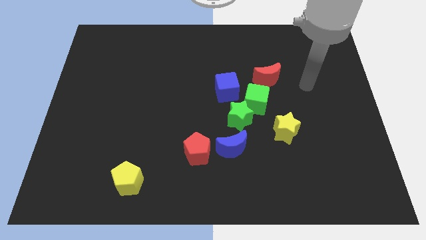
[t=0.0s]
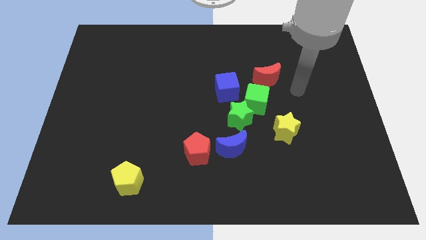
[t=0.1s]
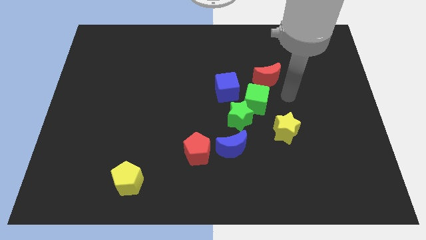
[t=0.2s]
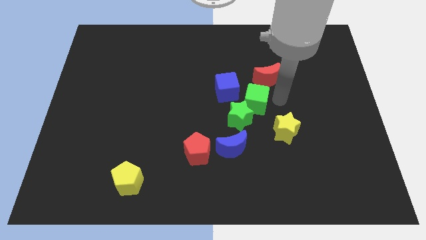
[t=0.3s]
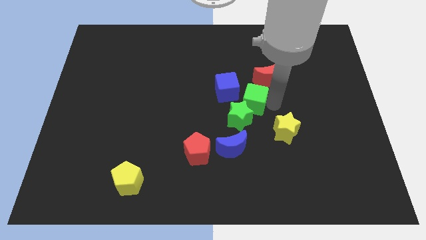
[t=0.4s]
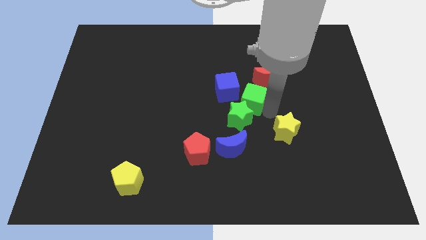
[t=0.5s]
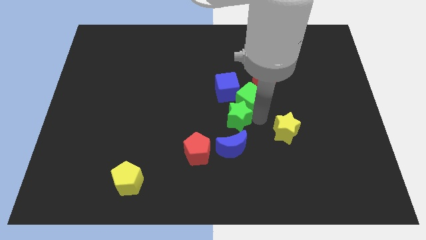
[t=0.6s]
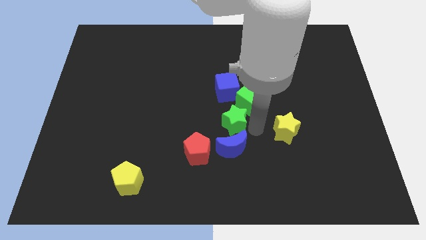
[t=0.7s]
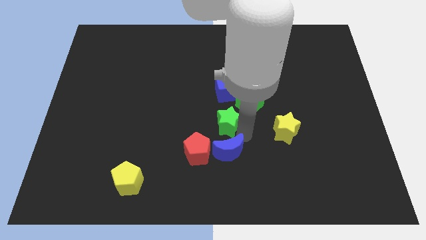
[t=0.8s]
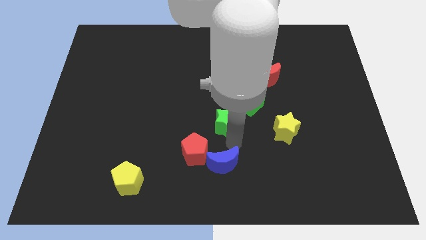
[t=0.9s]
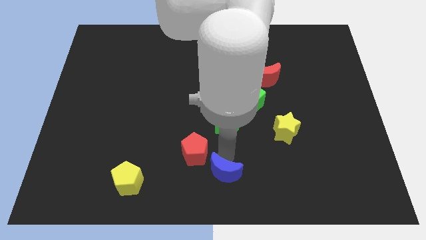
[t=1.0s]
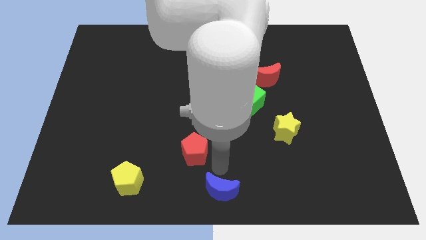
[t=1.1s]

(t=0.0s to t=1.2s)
separate the red pentagon from the blue moon

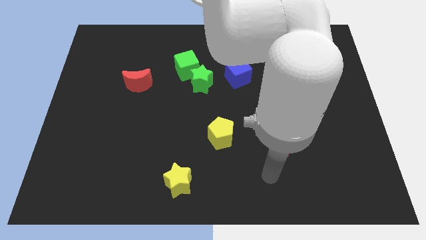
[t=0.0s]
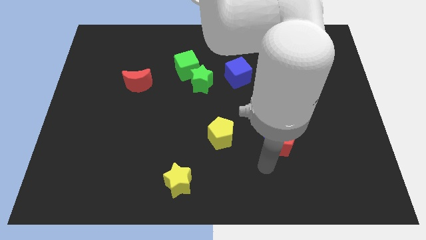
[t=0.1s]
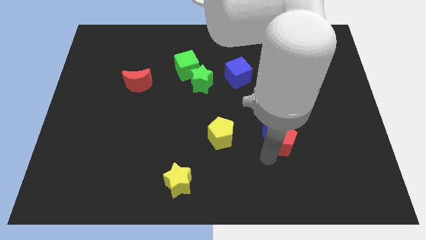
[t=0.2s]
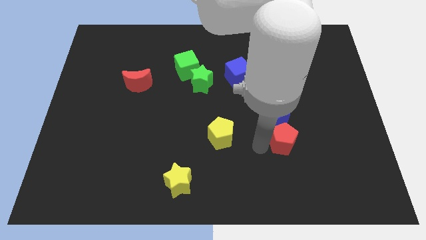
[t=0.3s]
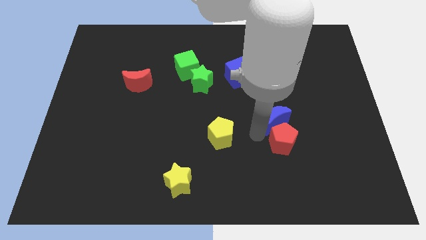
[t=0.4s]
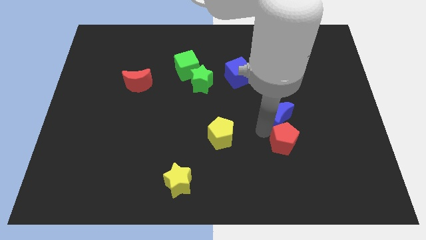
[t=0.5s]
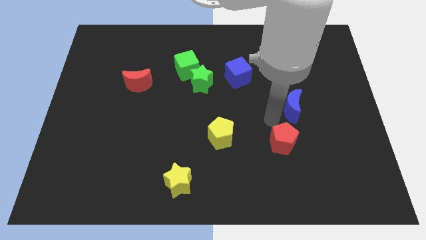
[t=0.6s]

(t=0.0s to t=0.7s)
move the red pentagon away from the blue moon

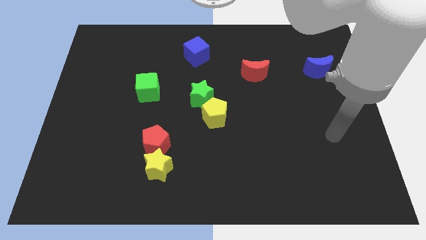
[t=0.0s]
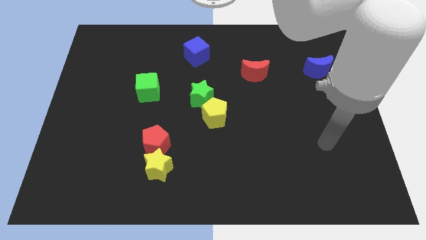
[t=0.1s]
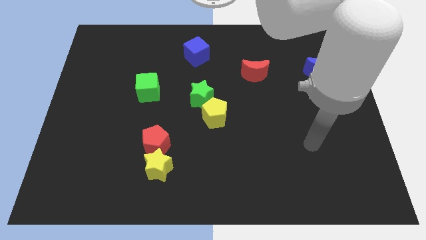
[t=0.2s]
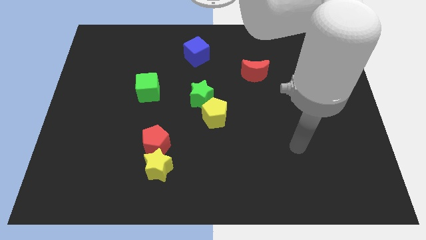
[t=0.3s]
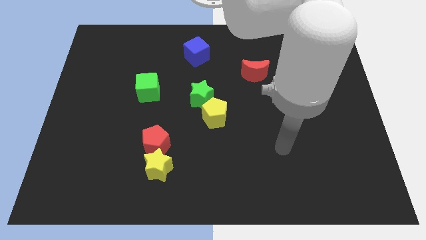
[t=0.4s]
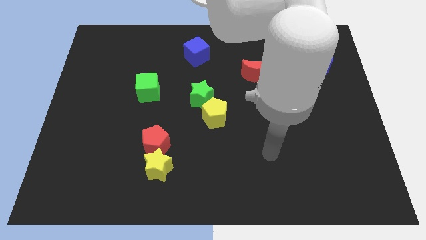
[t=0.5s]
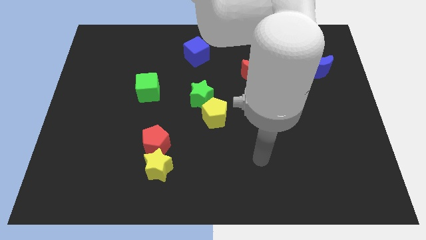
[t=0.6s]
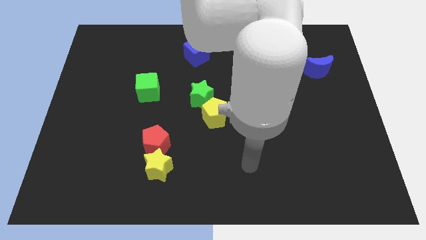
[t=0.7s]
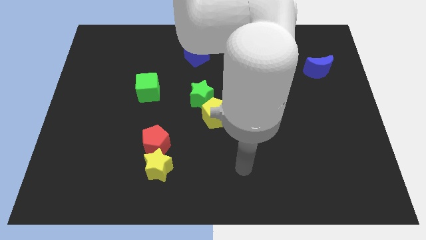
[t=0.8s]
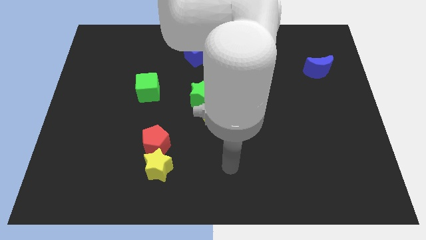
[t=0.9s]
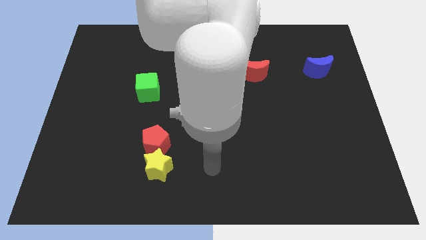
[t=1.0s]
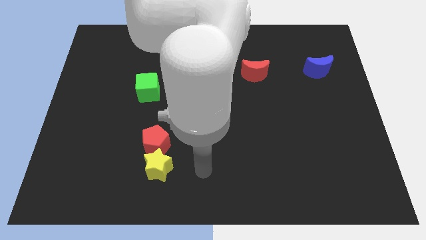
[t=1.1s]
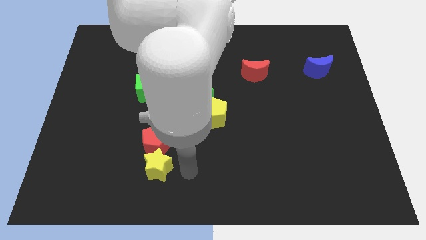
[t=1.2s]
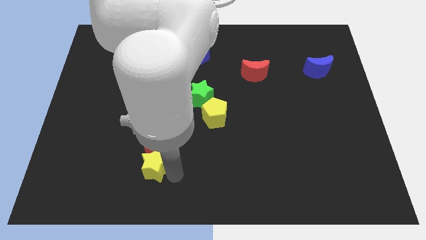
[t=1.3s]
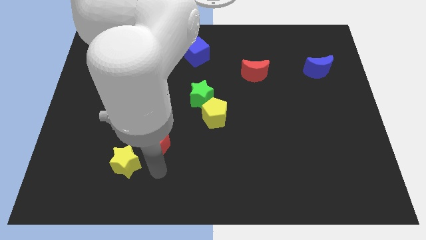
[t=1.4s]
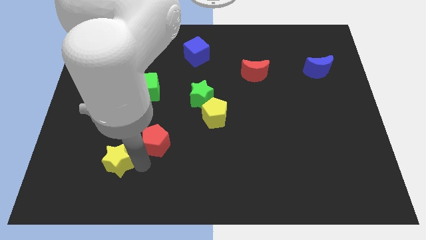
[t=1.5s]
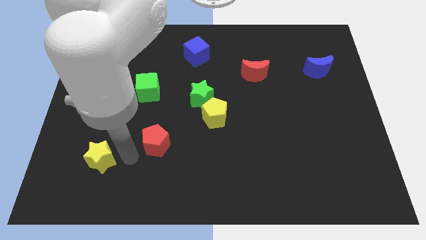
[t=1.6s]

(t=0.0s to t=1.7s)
move the red pentagon away from the yellow star

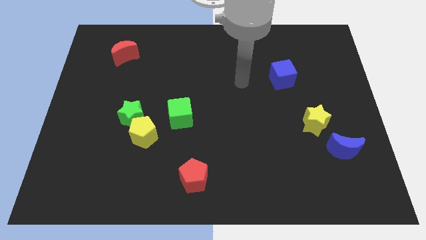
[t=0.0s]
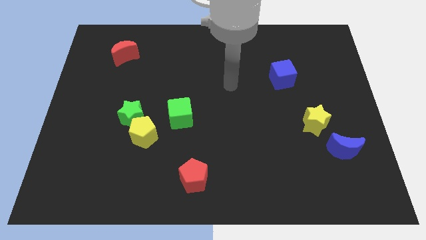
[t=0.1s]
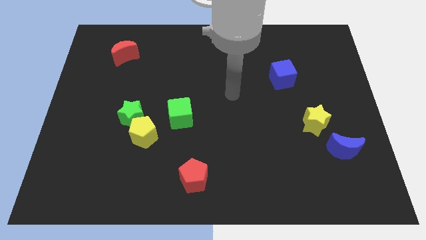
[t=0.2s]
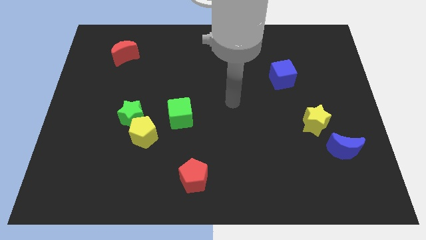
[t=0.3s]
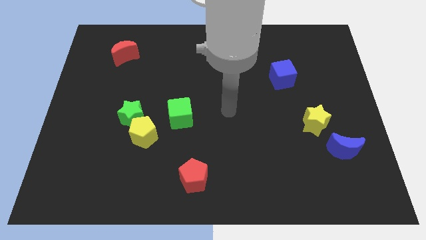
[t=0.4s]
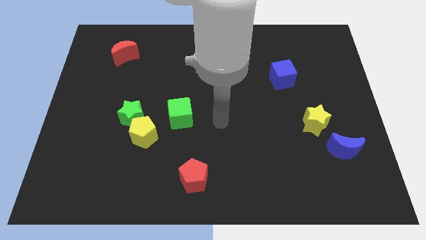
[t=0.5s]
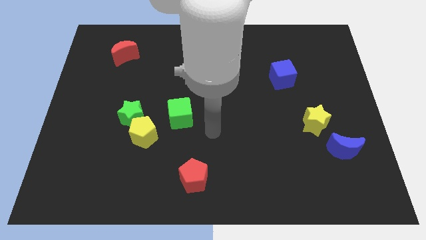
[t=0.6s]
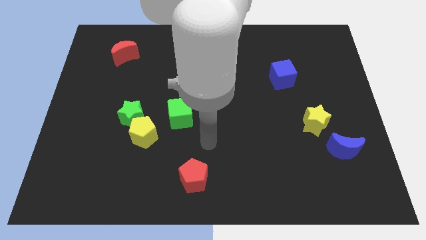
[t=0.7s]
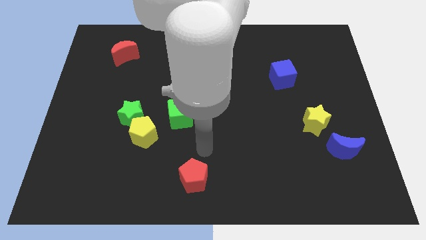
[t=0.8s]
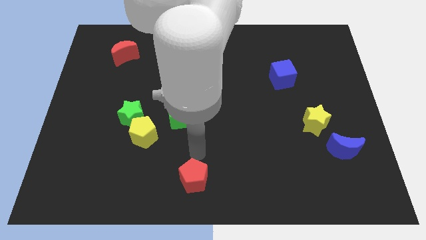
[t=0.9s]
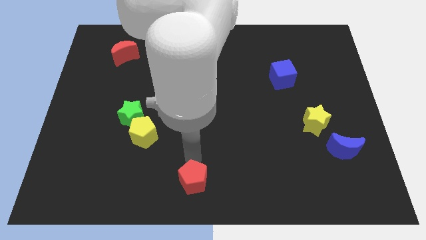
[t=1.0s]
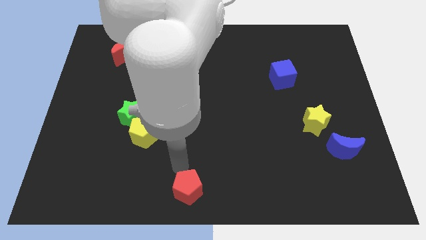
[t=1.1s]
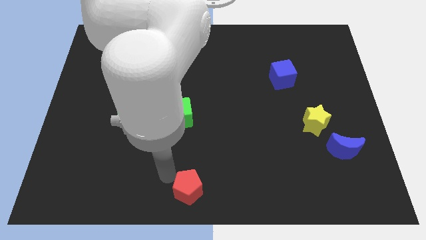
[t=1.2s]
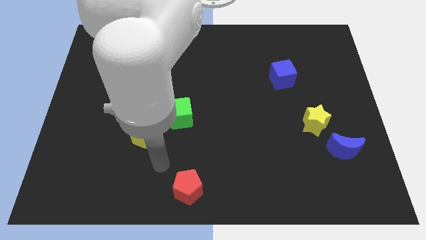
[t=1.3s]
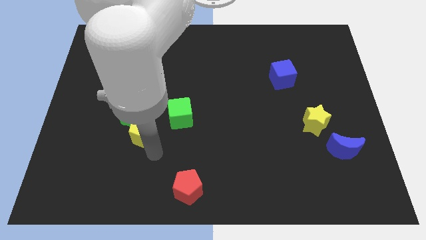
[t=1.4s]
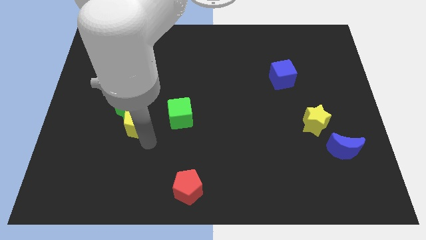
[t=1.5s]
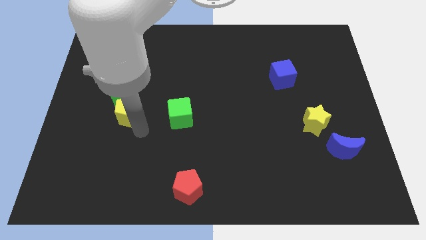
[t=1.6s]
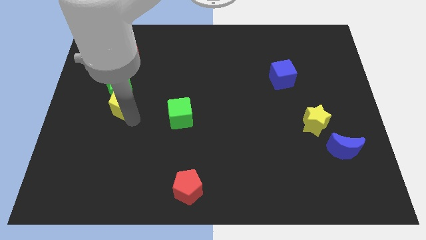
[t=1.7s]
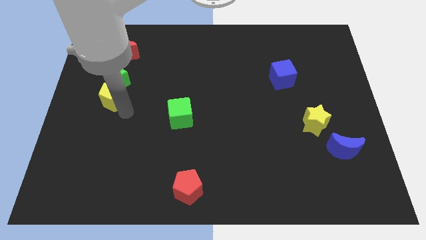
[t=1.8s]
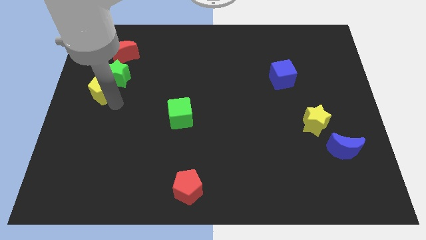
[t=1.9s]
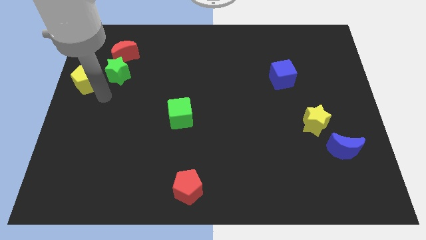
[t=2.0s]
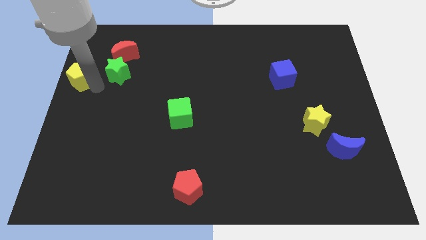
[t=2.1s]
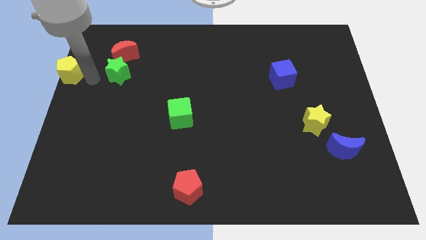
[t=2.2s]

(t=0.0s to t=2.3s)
separate the green star from the yellow pentagon

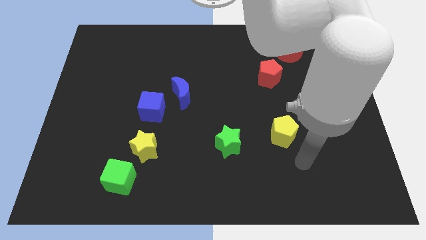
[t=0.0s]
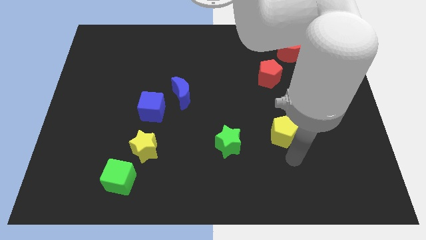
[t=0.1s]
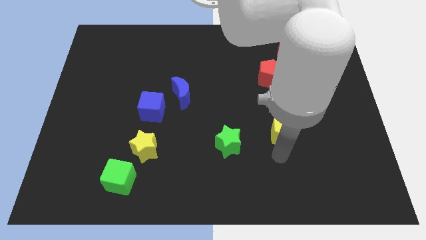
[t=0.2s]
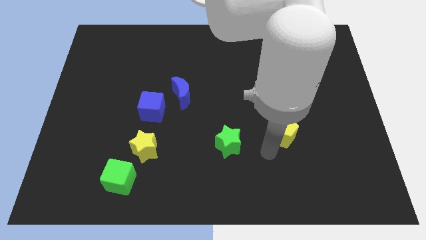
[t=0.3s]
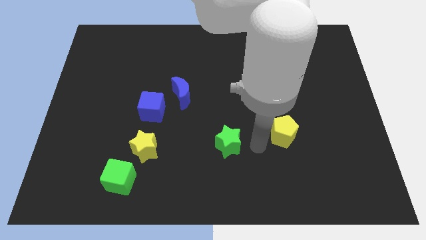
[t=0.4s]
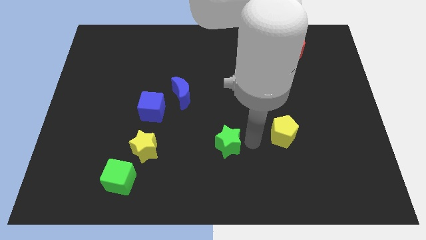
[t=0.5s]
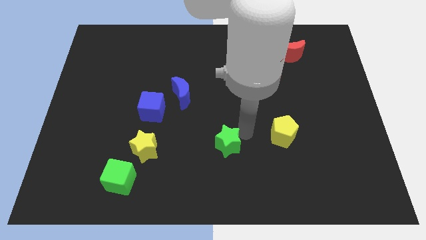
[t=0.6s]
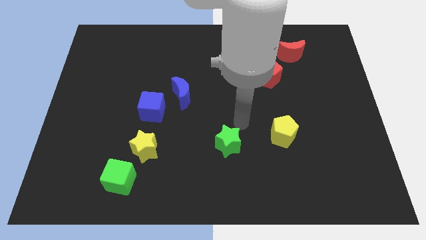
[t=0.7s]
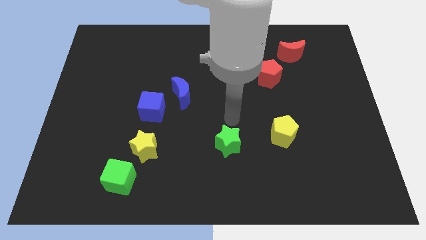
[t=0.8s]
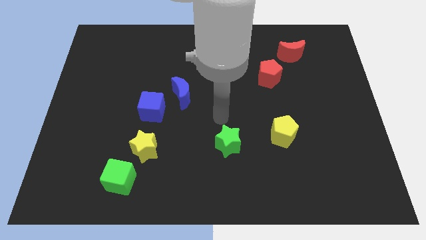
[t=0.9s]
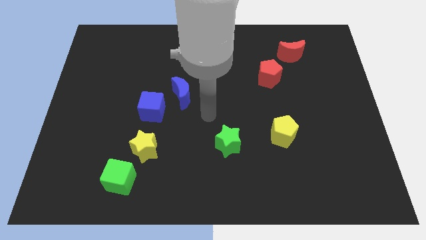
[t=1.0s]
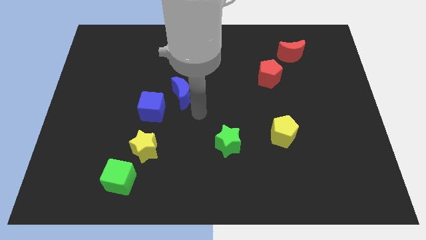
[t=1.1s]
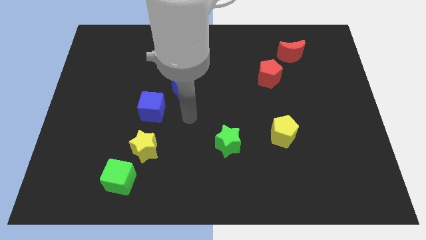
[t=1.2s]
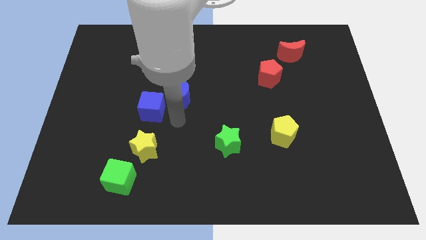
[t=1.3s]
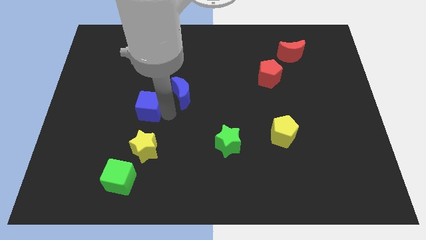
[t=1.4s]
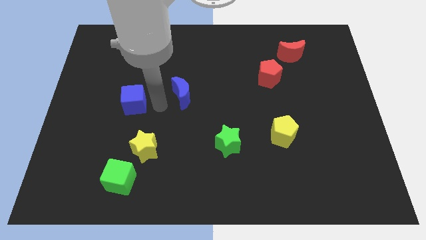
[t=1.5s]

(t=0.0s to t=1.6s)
pull the blue moon apart from the blue cube

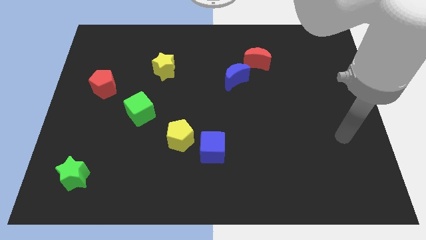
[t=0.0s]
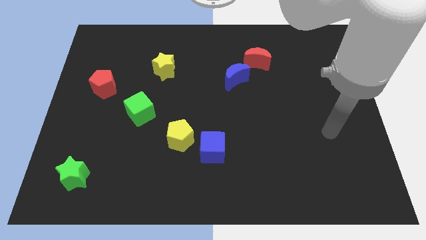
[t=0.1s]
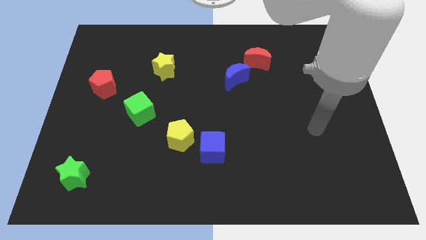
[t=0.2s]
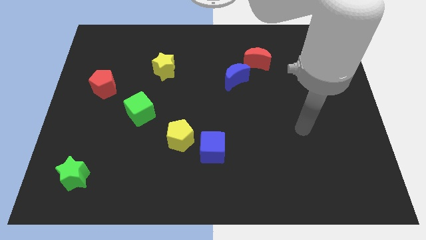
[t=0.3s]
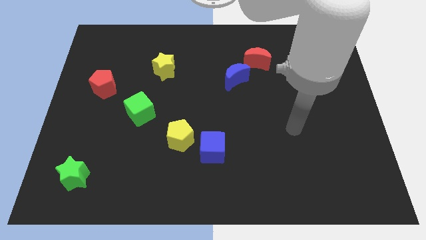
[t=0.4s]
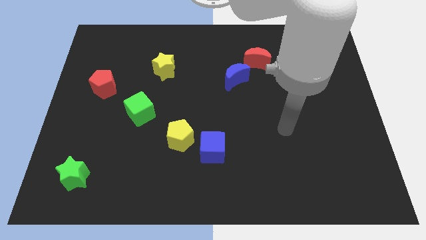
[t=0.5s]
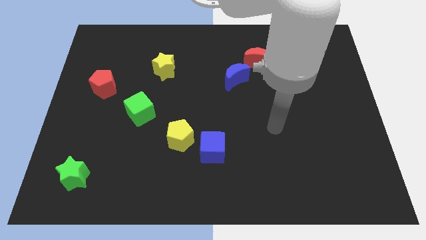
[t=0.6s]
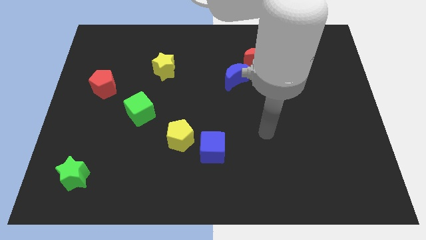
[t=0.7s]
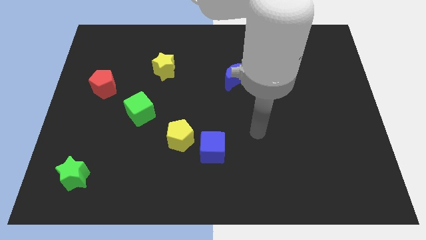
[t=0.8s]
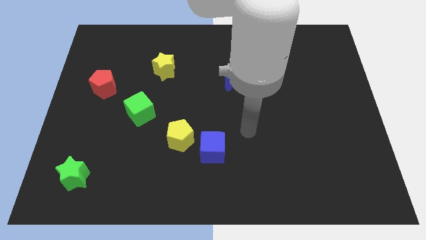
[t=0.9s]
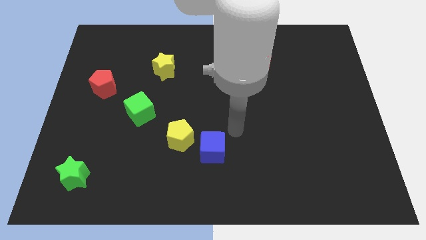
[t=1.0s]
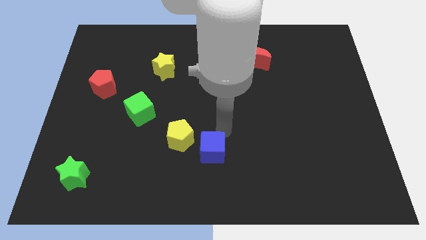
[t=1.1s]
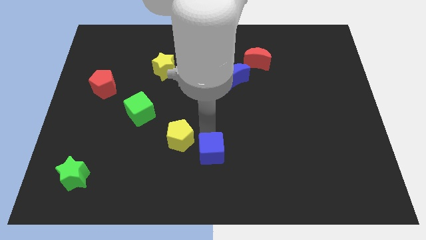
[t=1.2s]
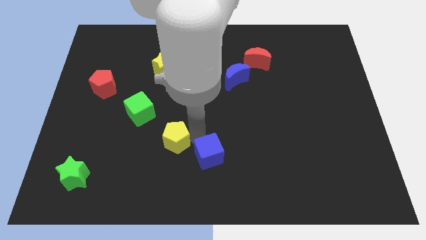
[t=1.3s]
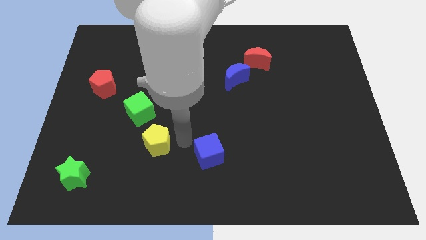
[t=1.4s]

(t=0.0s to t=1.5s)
pull the blue cube apart from the yellow pentagon

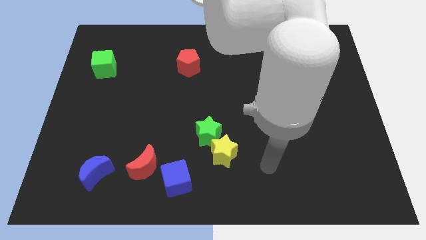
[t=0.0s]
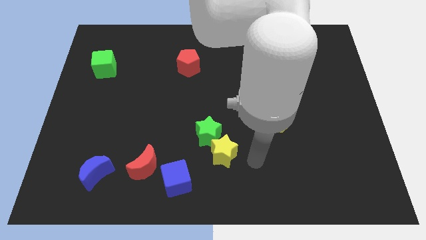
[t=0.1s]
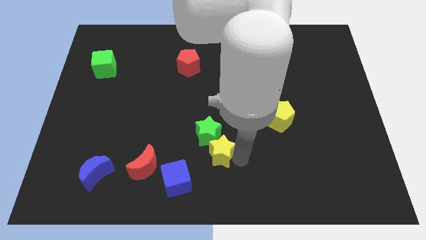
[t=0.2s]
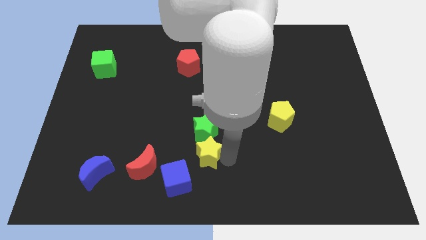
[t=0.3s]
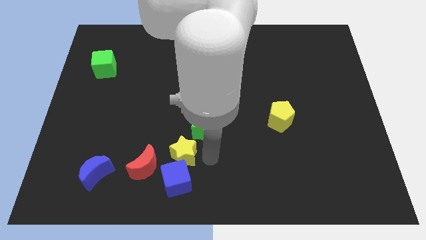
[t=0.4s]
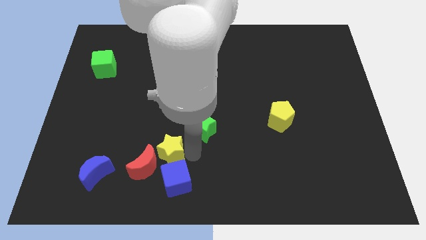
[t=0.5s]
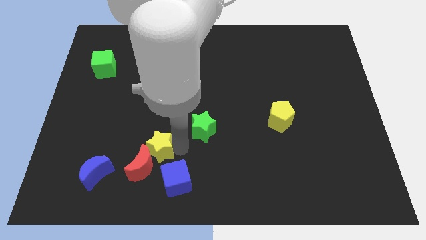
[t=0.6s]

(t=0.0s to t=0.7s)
separate the green star from the yellow star
